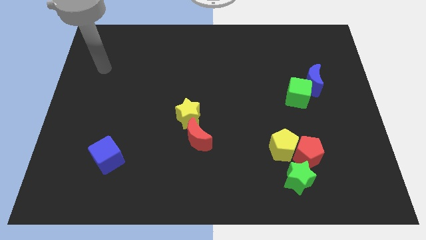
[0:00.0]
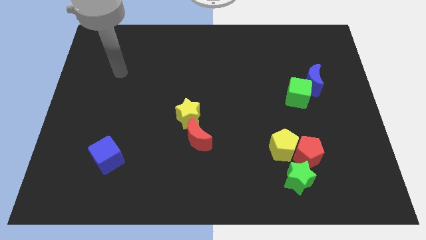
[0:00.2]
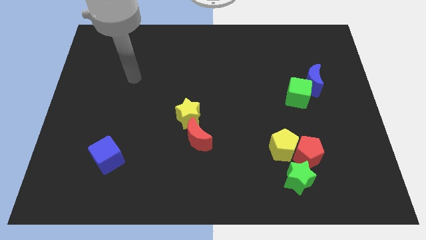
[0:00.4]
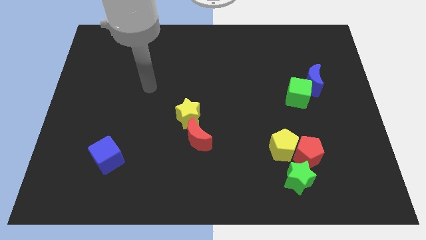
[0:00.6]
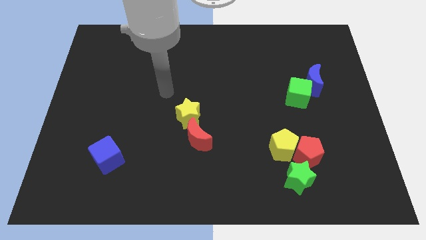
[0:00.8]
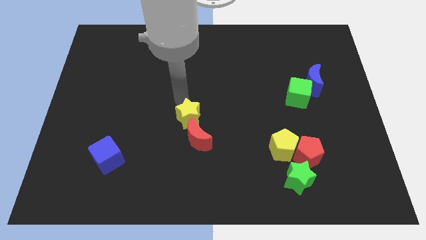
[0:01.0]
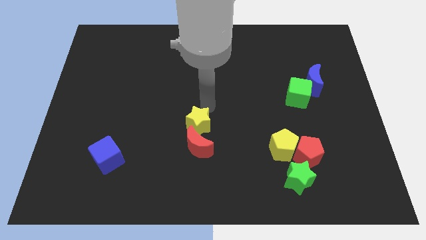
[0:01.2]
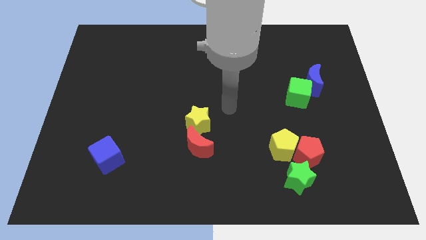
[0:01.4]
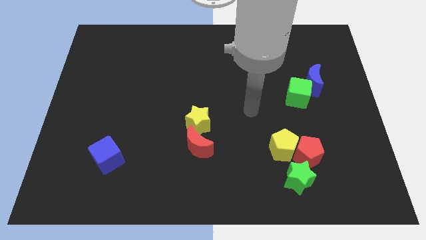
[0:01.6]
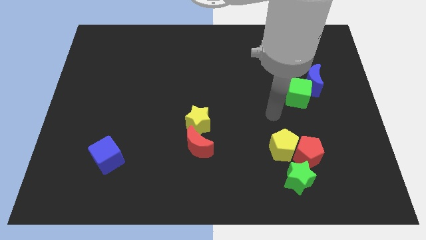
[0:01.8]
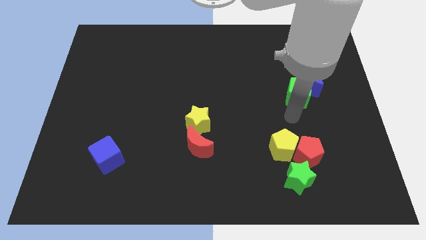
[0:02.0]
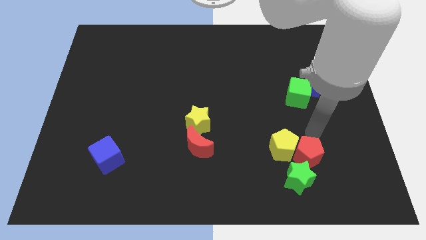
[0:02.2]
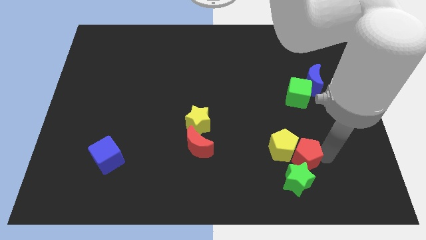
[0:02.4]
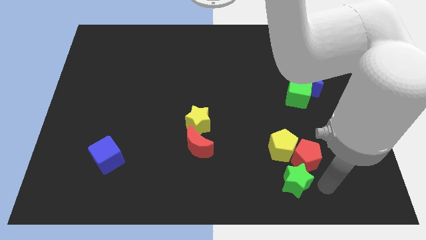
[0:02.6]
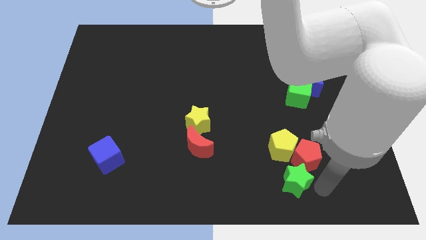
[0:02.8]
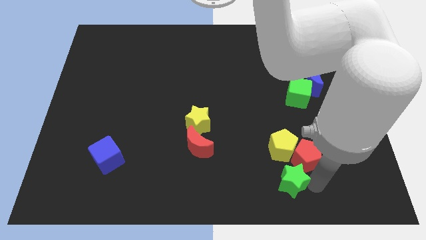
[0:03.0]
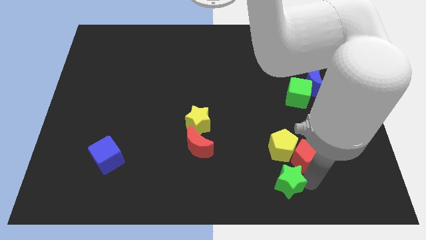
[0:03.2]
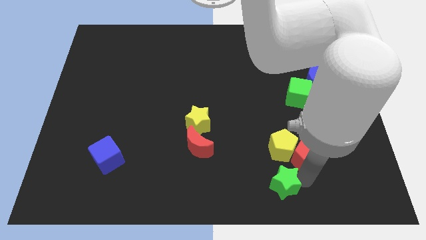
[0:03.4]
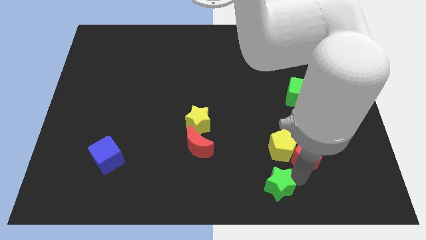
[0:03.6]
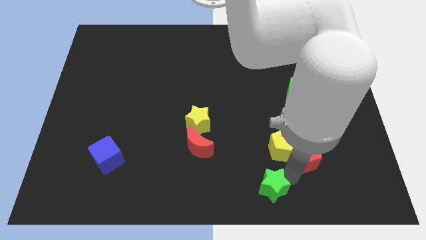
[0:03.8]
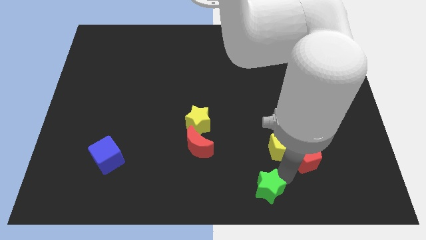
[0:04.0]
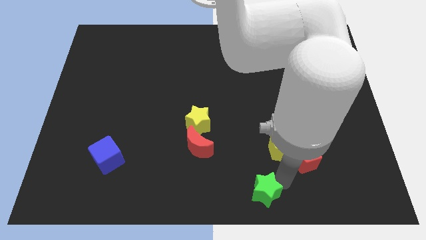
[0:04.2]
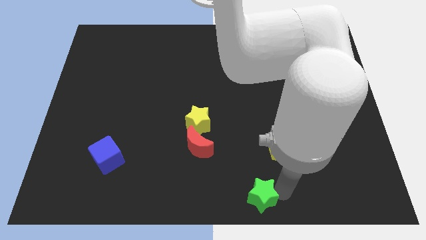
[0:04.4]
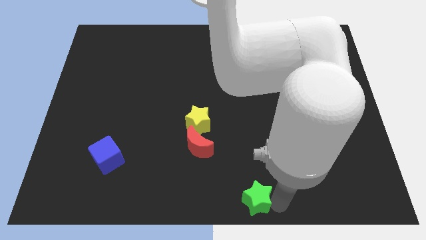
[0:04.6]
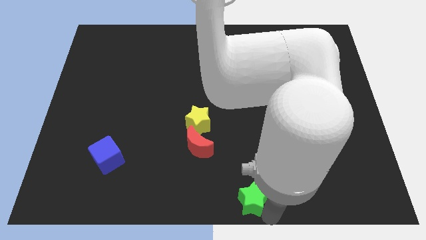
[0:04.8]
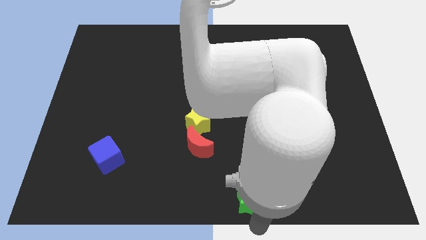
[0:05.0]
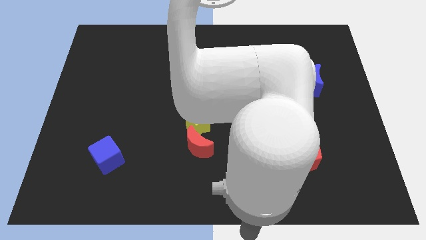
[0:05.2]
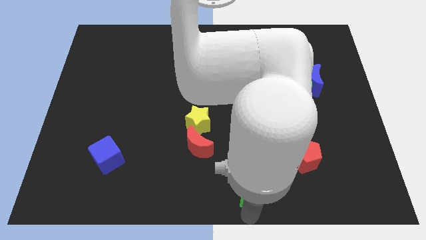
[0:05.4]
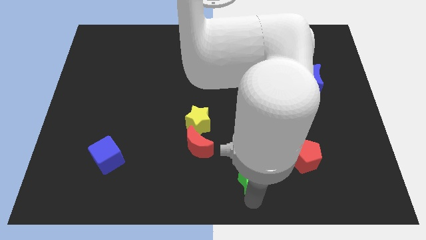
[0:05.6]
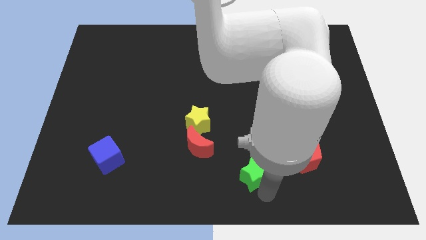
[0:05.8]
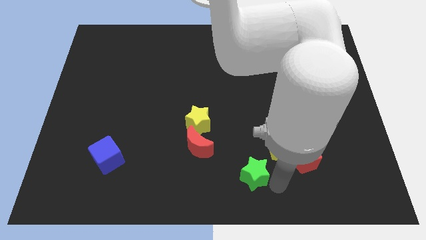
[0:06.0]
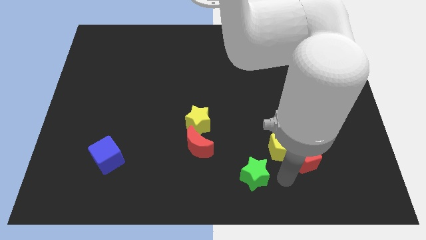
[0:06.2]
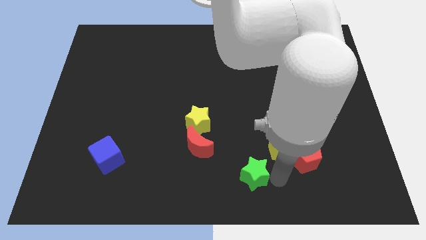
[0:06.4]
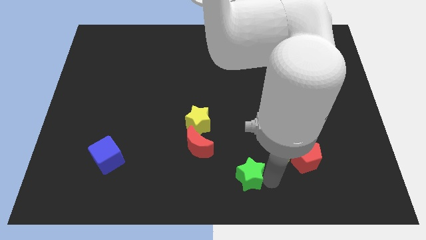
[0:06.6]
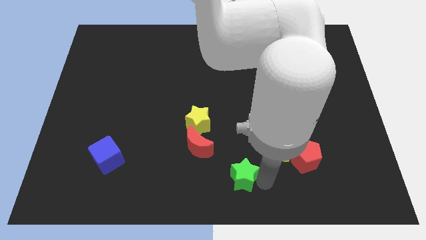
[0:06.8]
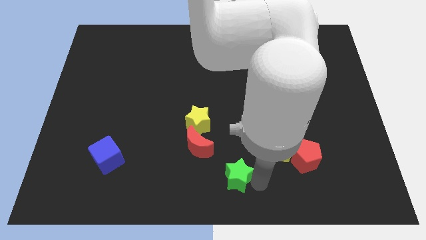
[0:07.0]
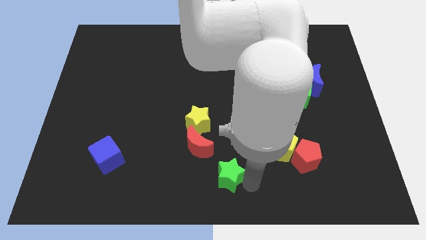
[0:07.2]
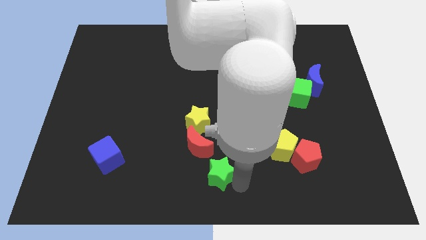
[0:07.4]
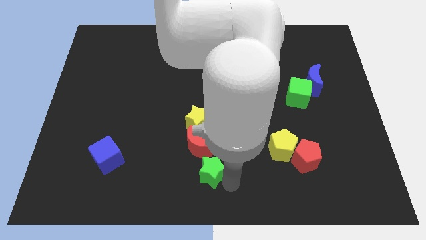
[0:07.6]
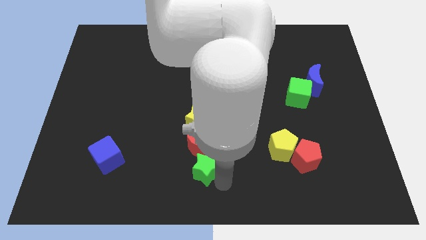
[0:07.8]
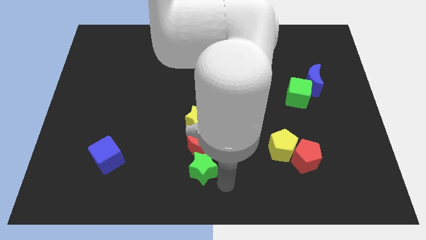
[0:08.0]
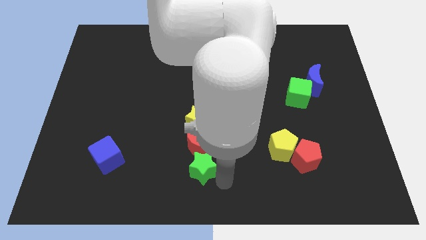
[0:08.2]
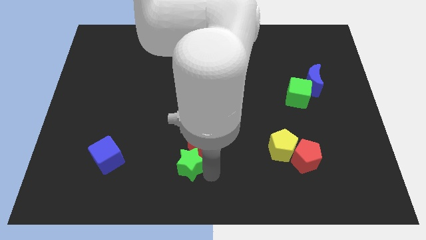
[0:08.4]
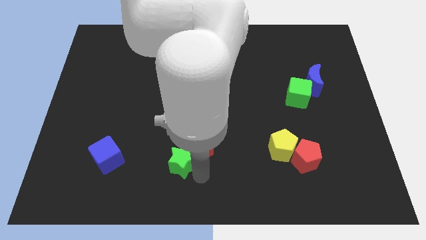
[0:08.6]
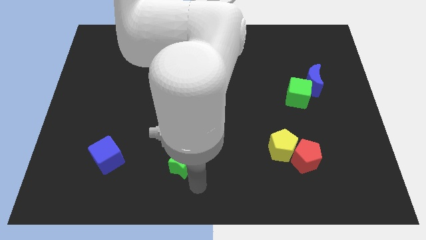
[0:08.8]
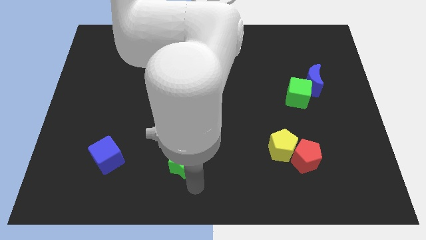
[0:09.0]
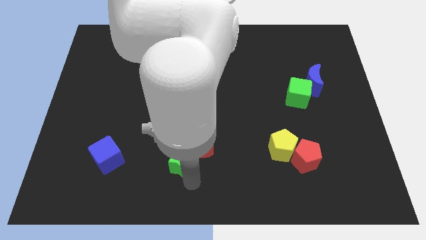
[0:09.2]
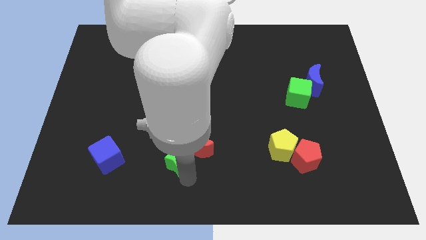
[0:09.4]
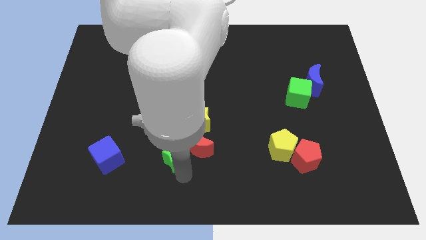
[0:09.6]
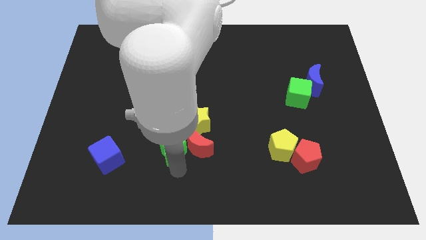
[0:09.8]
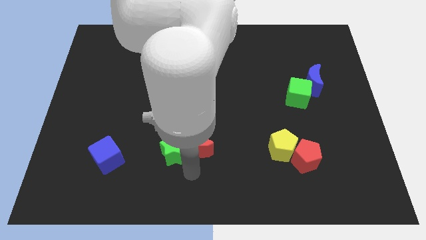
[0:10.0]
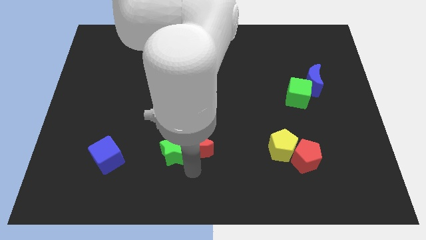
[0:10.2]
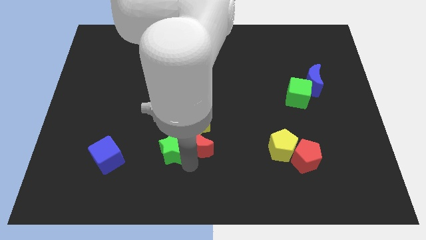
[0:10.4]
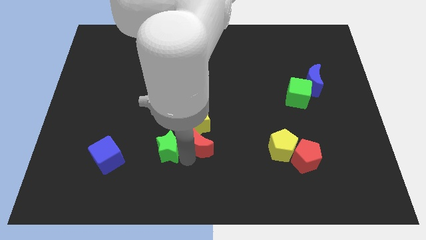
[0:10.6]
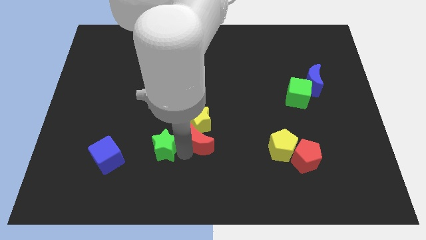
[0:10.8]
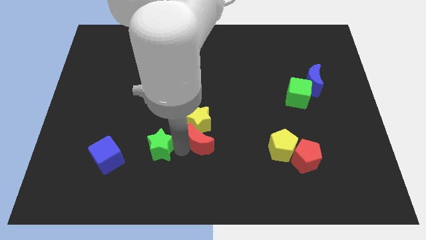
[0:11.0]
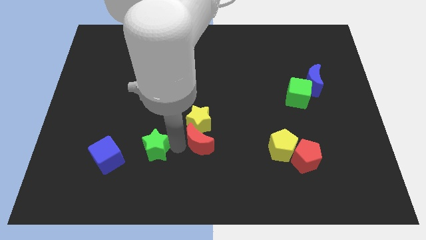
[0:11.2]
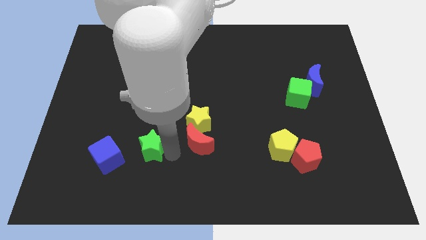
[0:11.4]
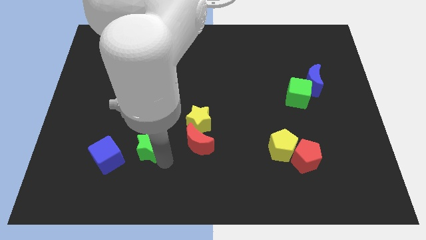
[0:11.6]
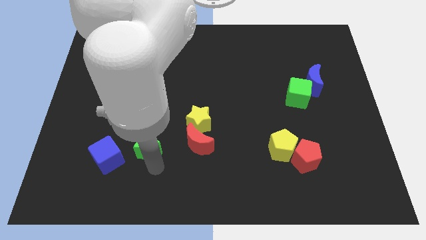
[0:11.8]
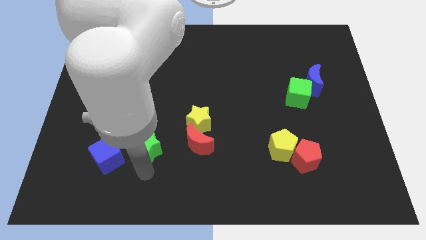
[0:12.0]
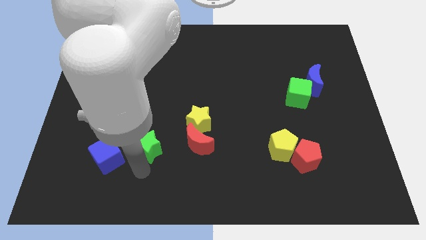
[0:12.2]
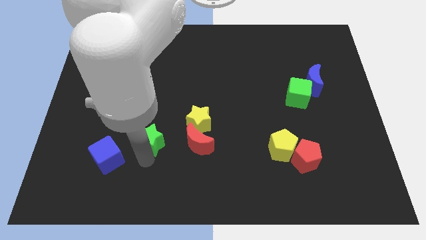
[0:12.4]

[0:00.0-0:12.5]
slide the green star to the left side of the yellow star
